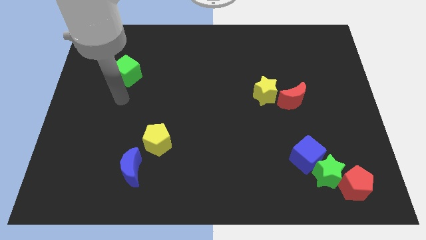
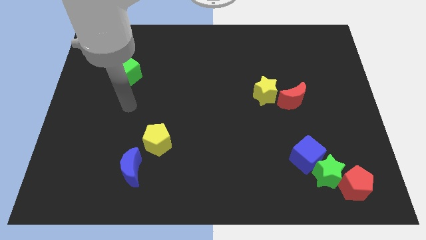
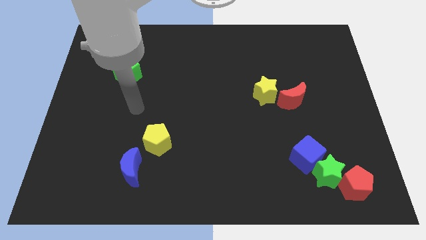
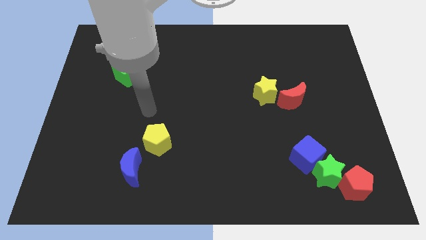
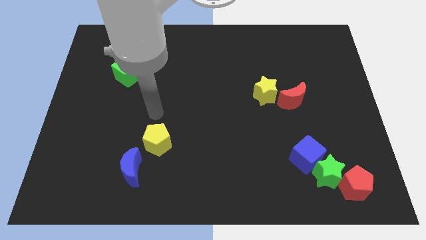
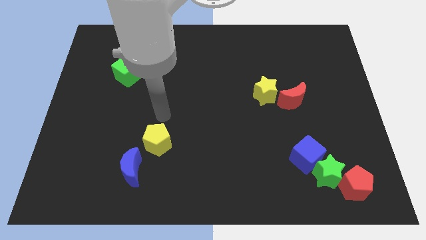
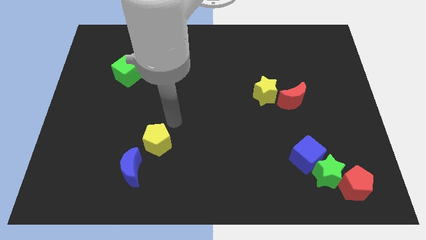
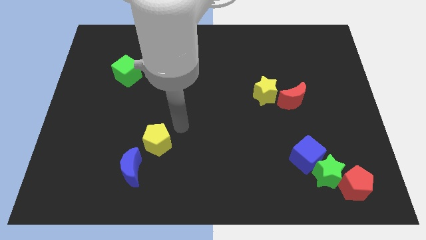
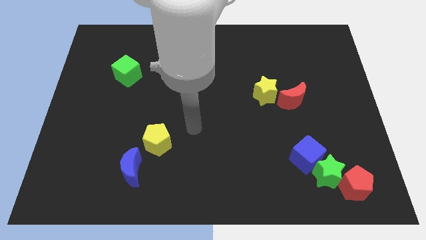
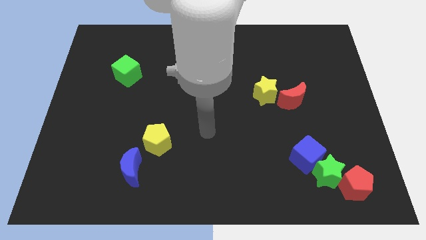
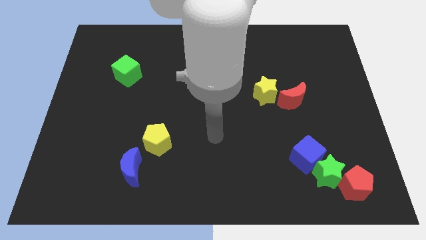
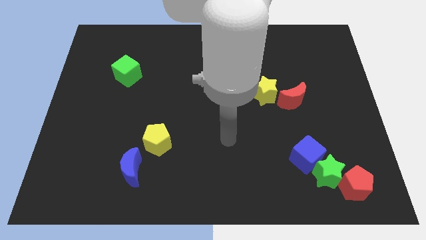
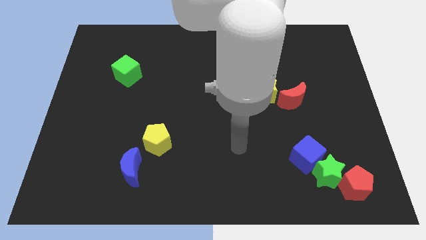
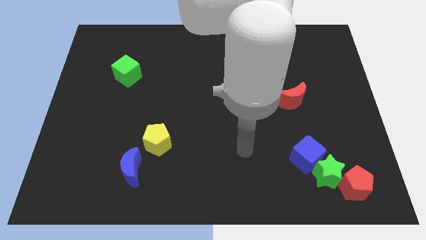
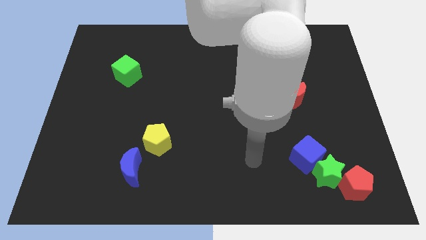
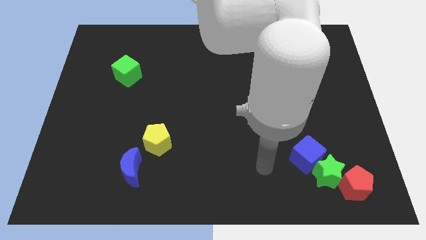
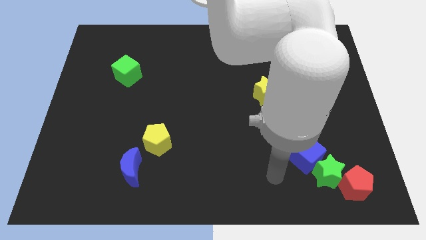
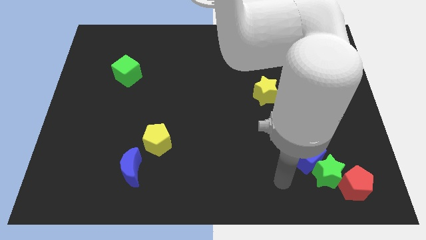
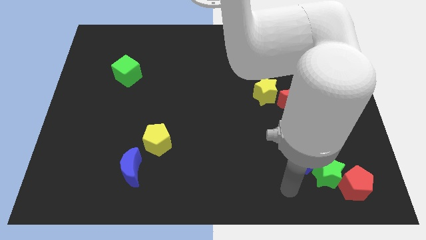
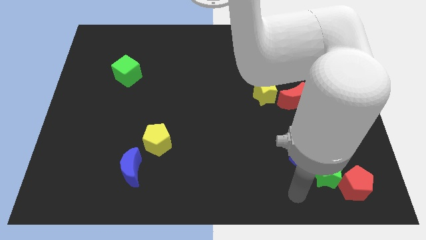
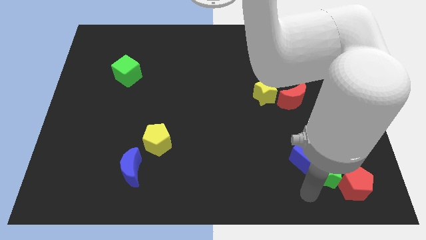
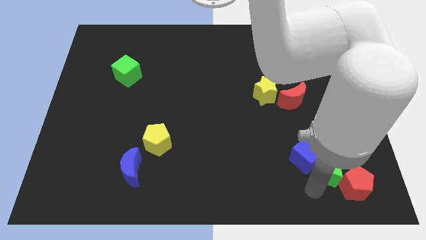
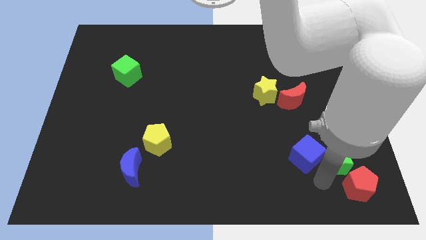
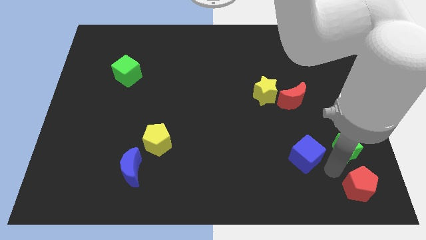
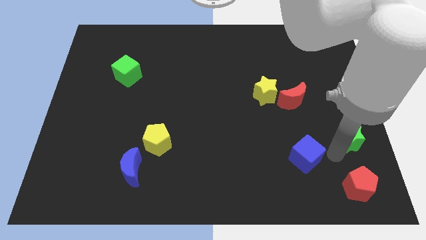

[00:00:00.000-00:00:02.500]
pull the blue cube apart from the green star

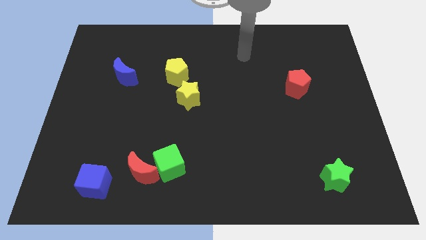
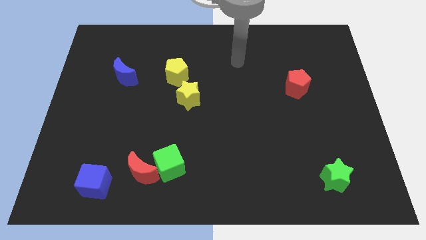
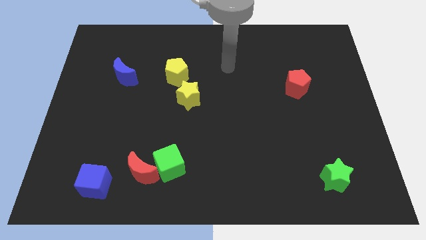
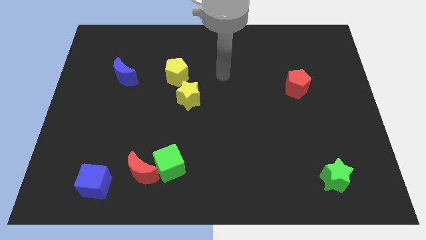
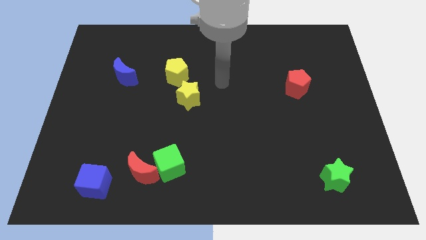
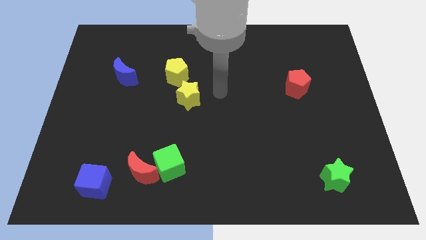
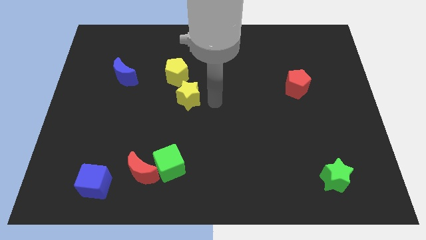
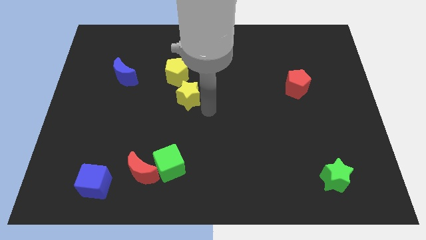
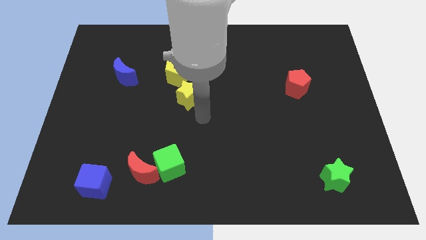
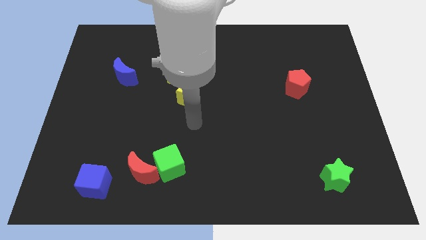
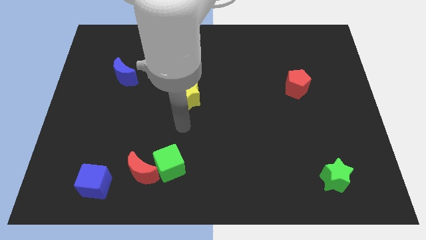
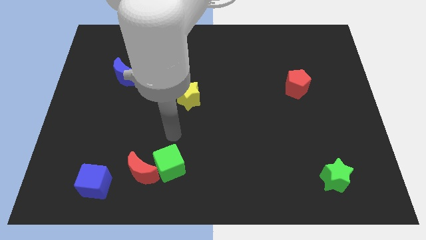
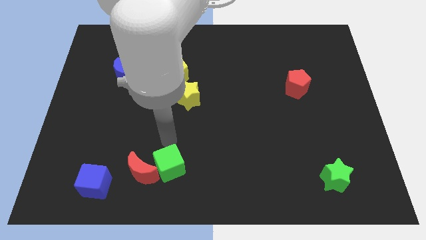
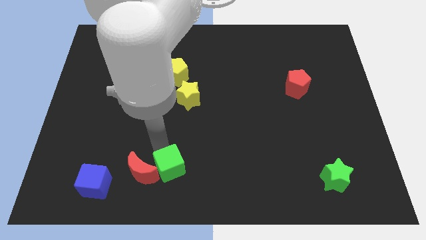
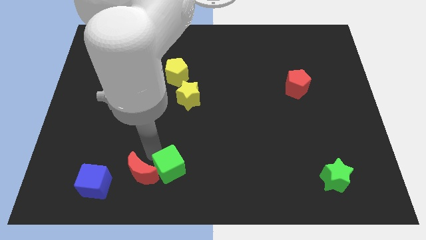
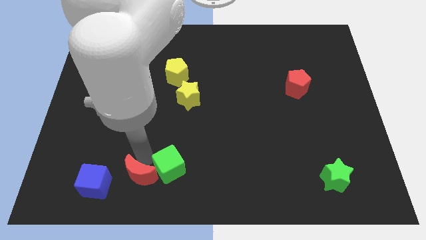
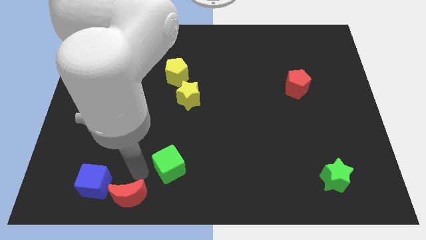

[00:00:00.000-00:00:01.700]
move the green cube away from the red moon

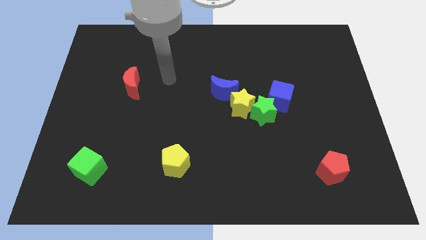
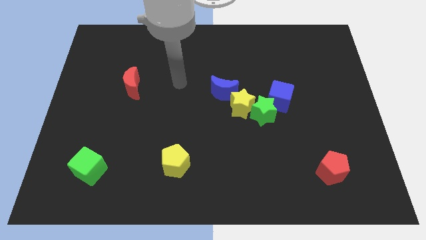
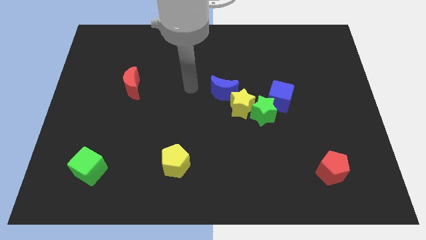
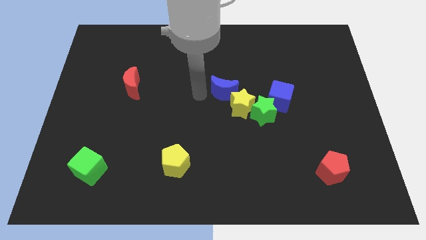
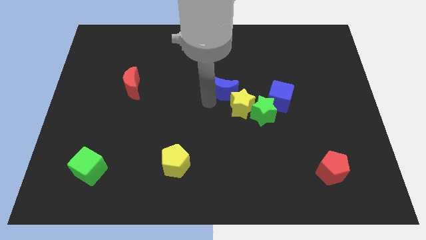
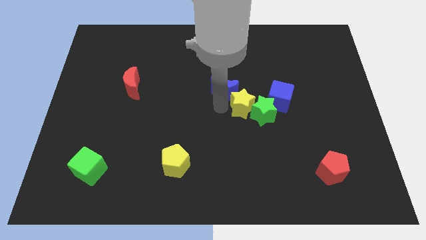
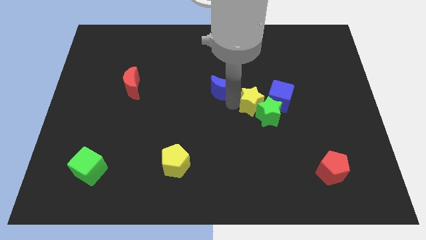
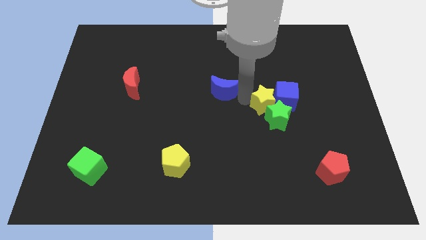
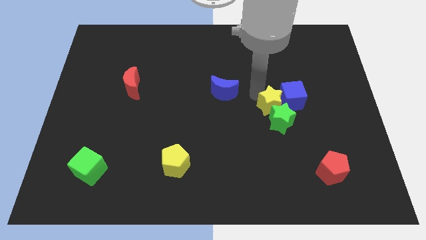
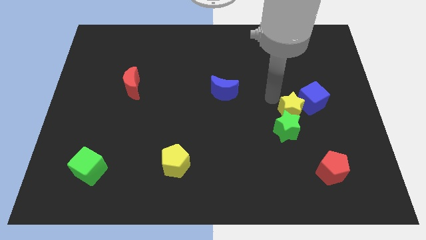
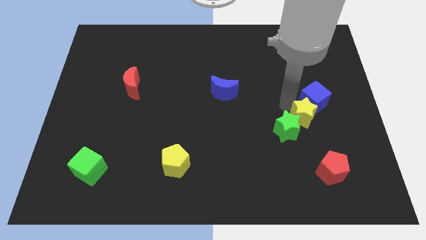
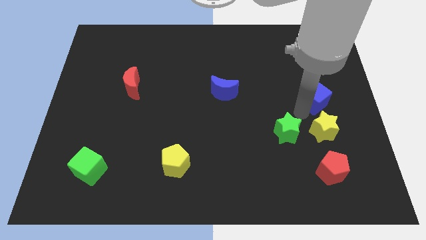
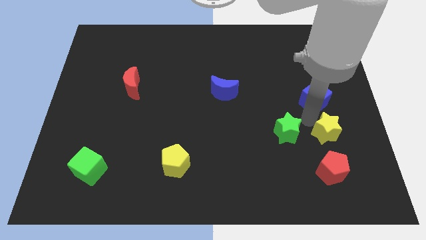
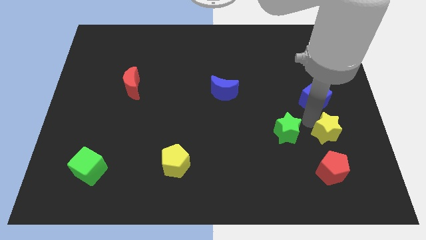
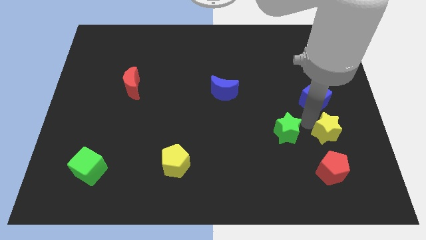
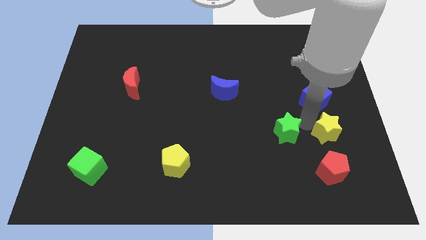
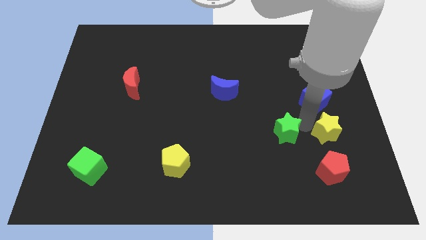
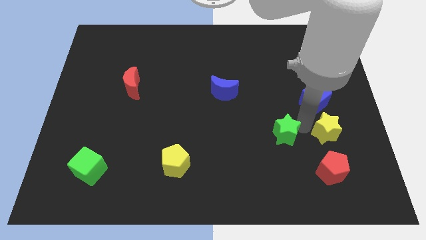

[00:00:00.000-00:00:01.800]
move the green star away from the yellow star and blue cube

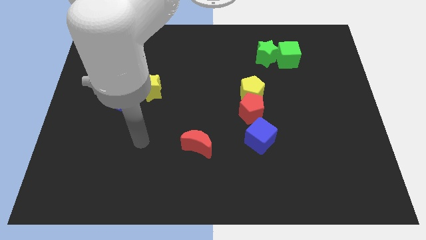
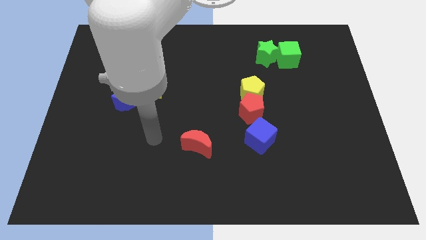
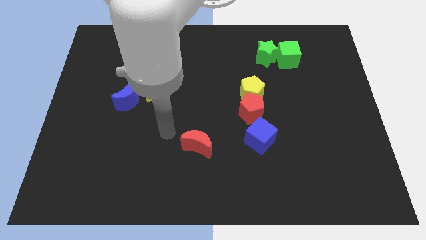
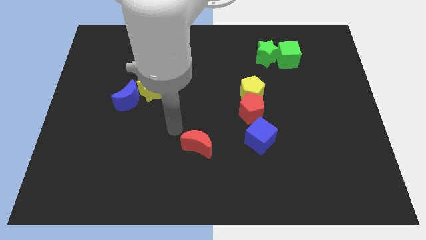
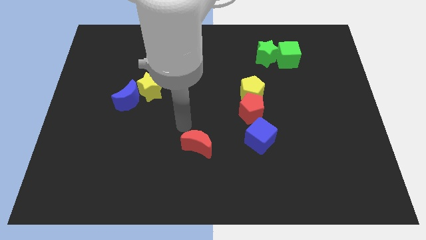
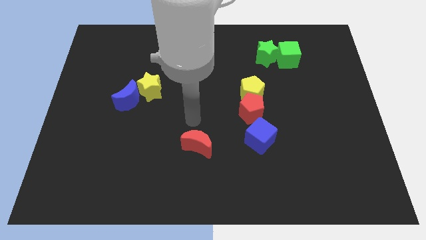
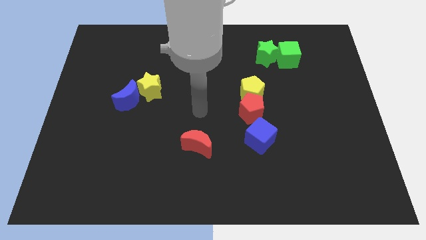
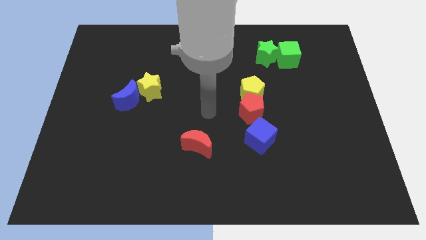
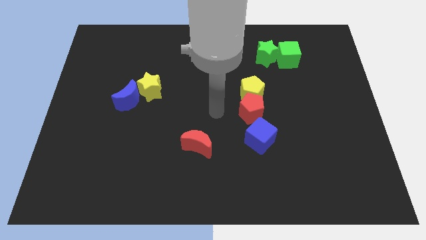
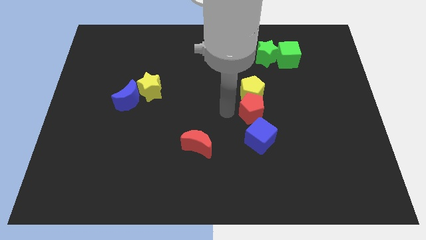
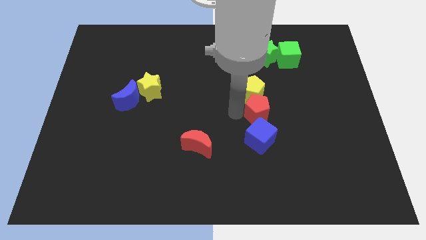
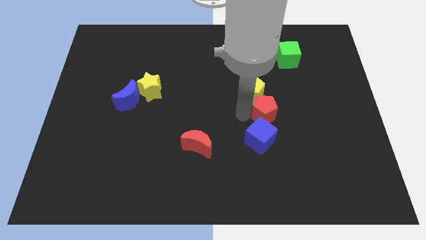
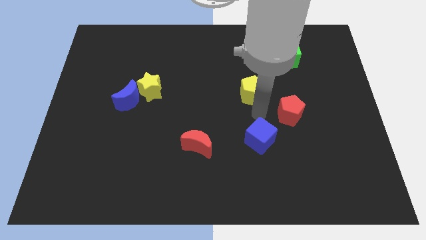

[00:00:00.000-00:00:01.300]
pull the yellow pentagon apart from the red pentagon

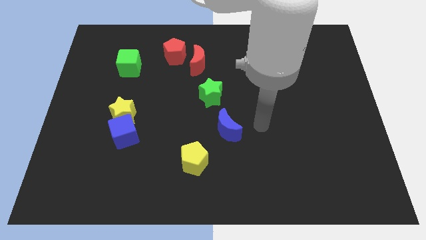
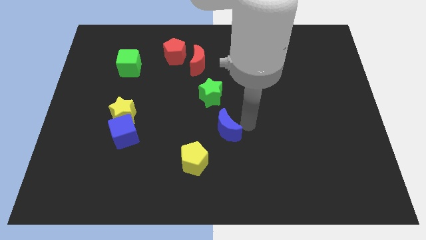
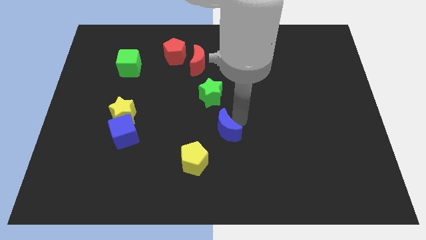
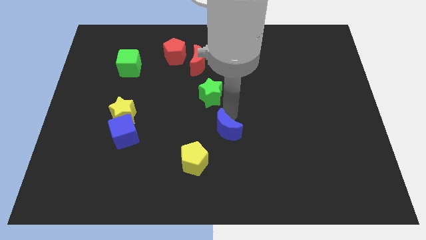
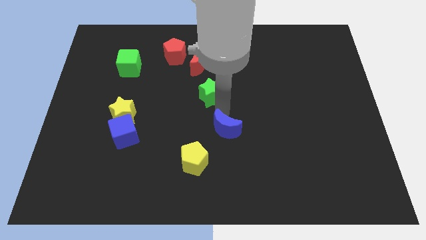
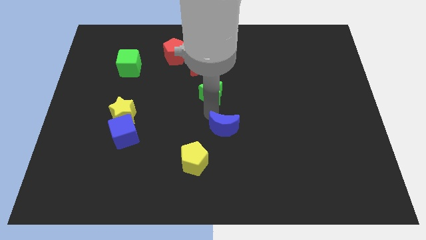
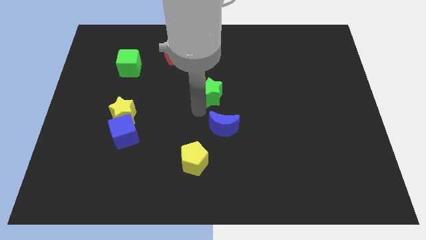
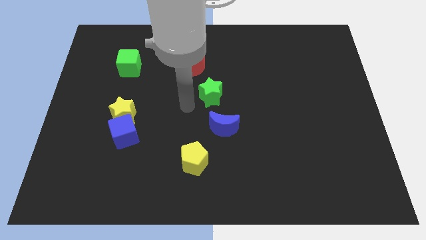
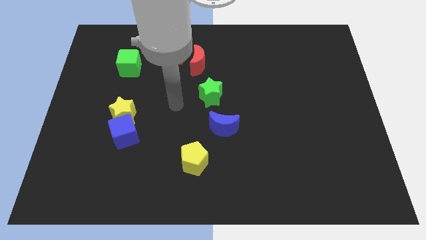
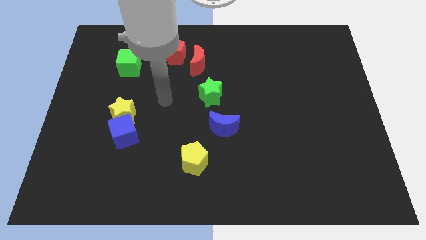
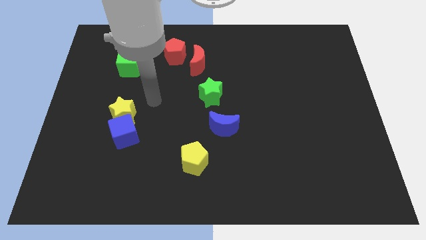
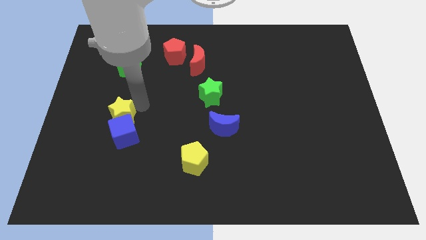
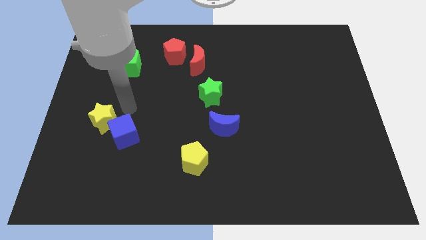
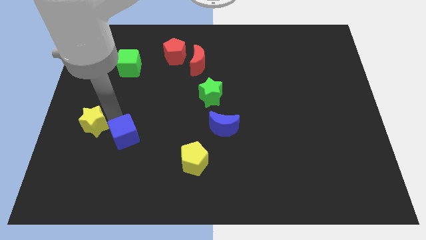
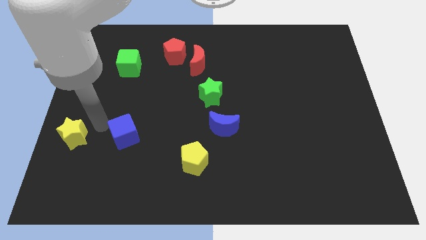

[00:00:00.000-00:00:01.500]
pull the blue cube apart from the yellow star

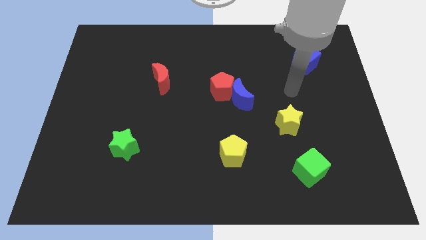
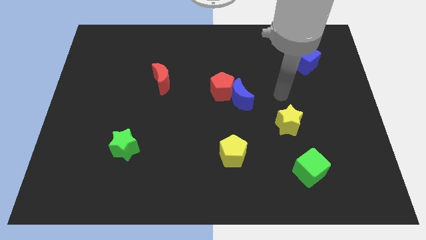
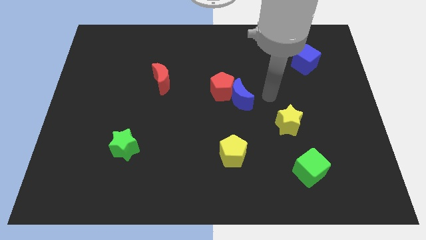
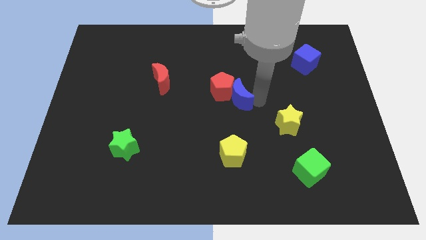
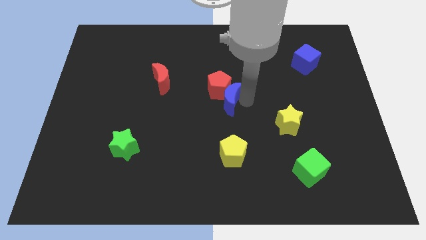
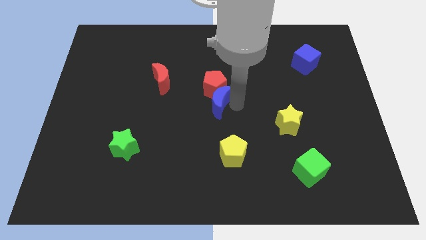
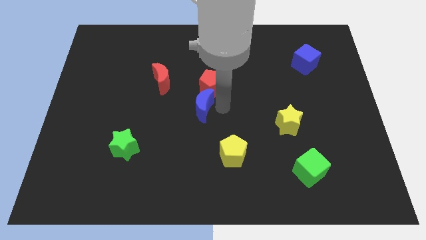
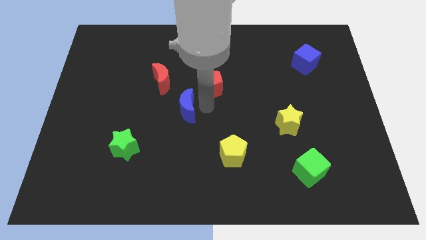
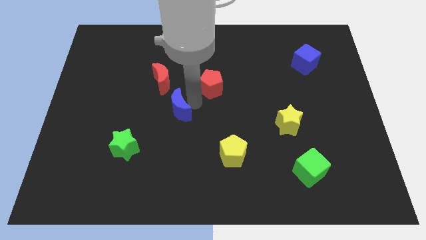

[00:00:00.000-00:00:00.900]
move the red pentagon away from the blue moon
